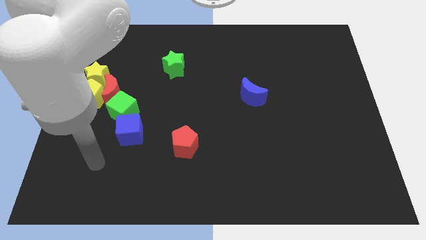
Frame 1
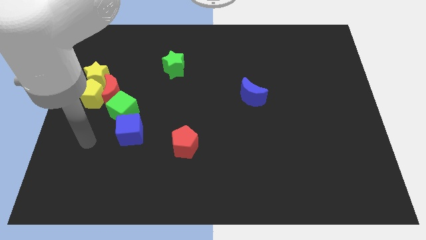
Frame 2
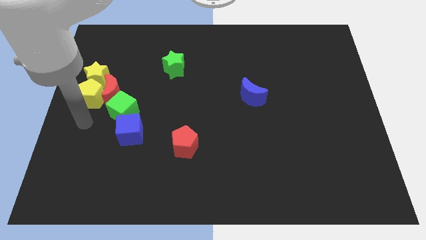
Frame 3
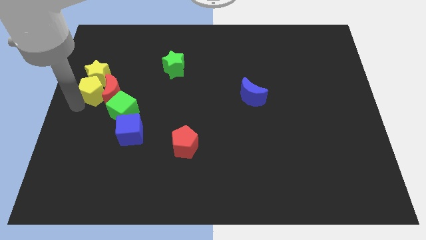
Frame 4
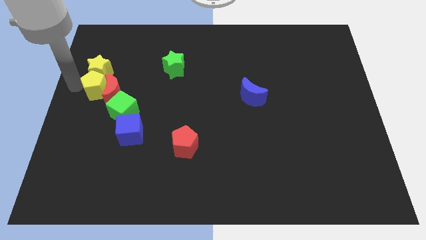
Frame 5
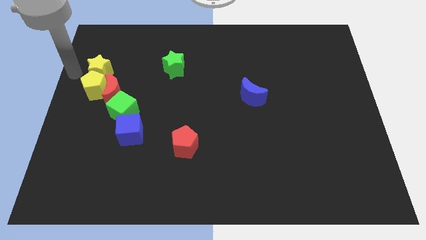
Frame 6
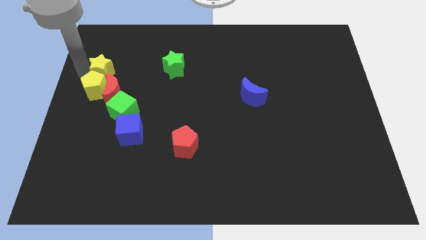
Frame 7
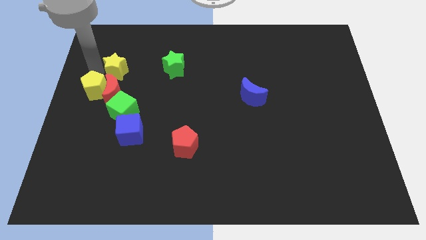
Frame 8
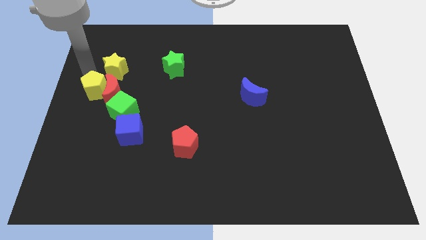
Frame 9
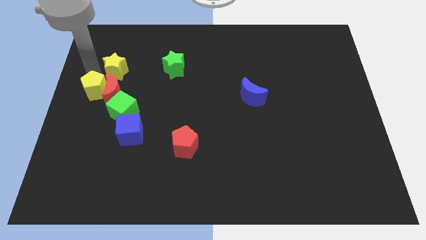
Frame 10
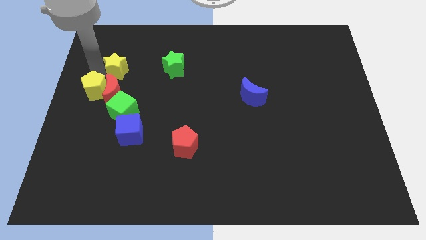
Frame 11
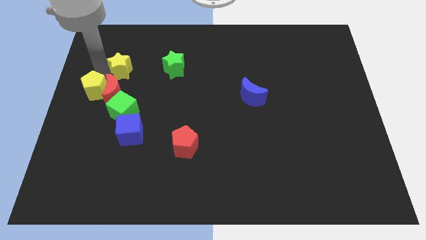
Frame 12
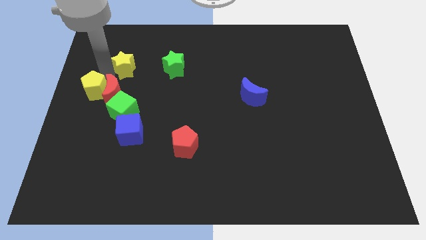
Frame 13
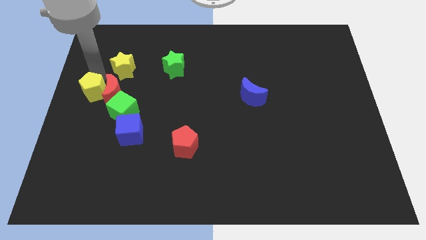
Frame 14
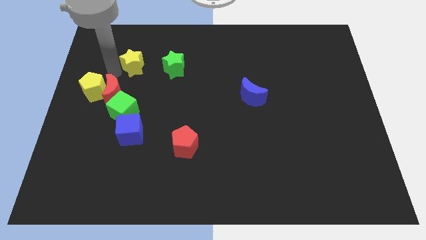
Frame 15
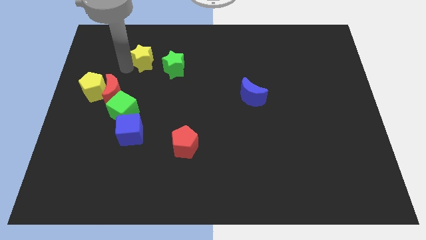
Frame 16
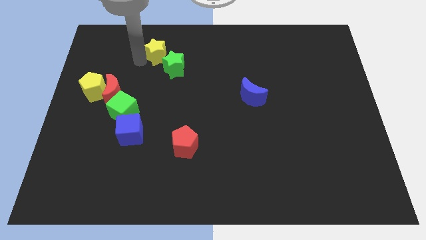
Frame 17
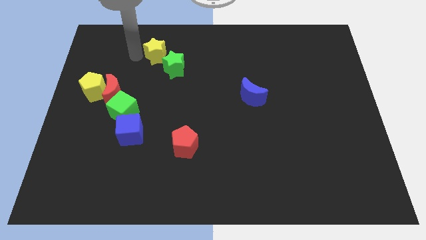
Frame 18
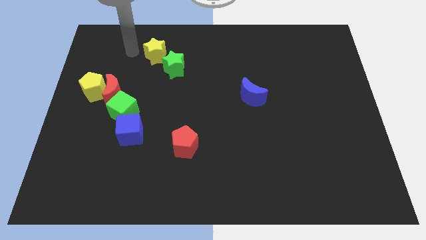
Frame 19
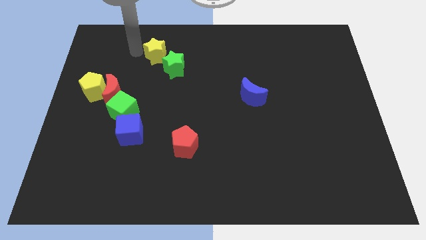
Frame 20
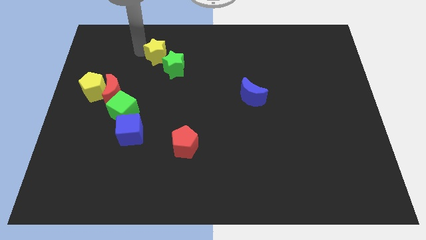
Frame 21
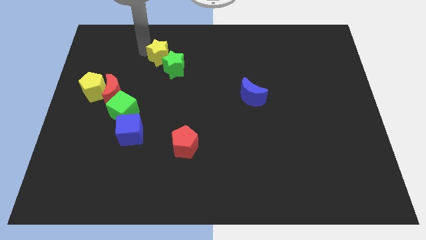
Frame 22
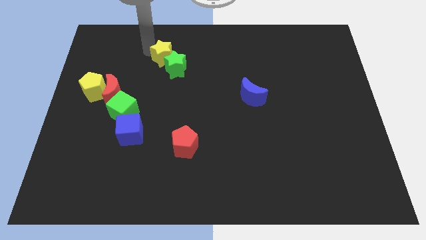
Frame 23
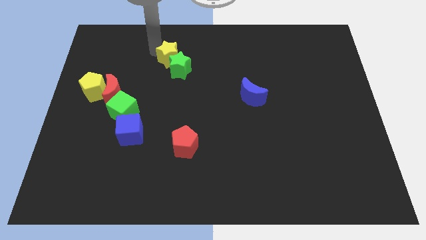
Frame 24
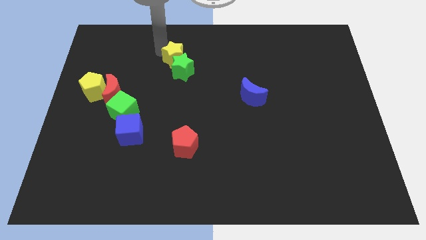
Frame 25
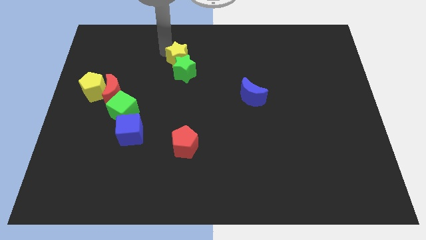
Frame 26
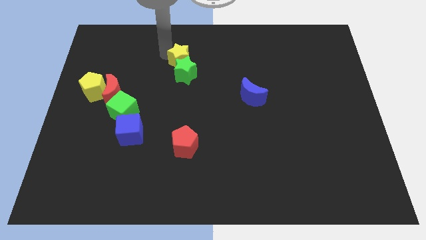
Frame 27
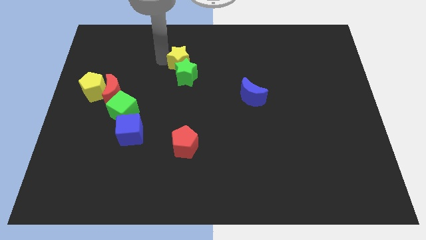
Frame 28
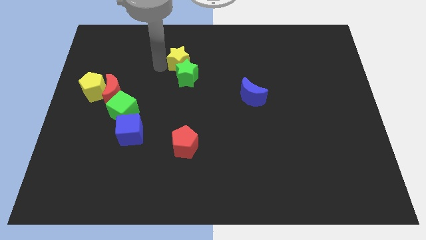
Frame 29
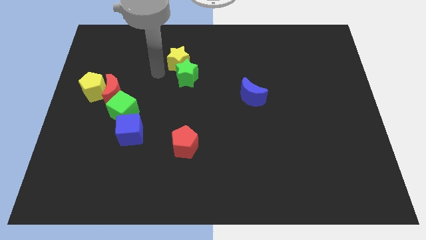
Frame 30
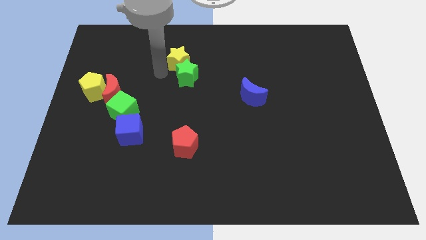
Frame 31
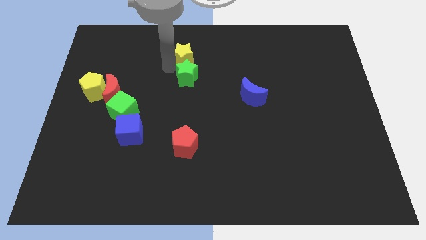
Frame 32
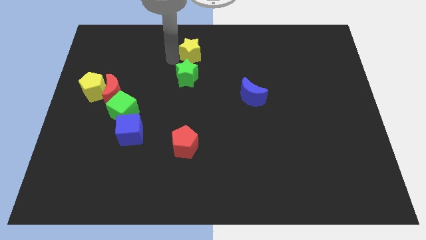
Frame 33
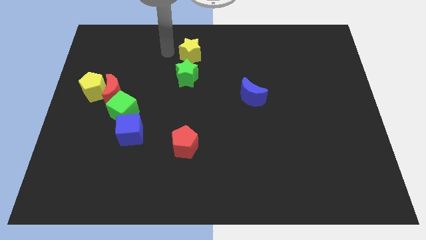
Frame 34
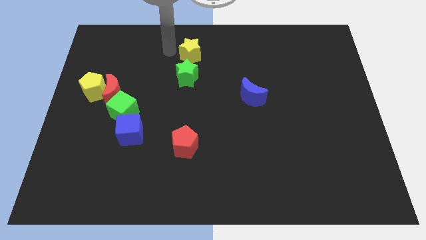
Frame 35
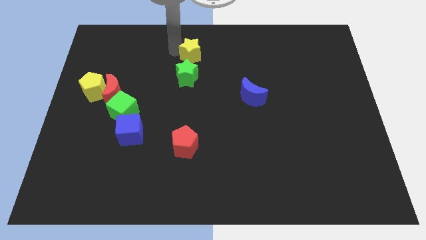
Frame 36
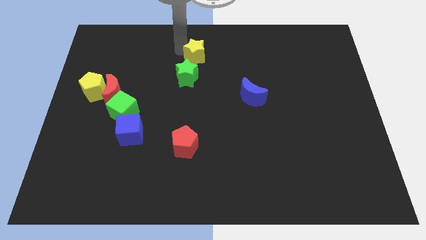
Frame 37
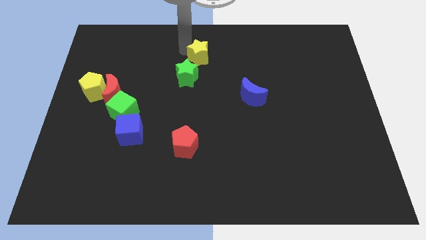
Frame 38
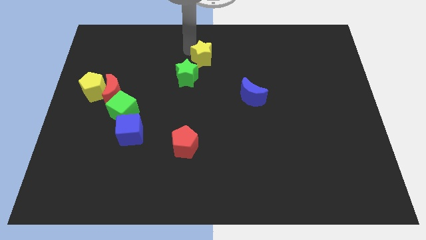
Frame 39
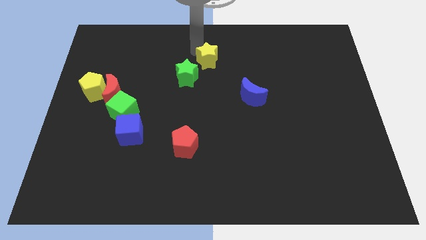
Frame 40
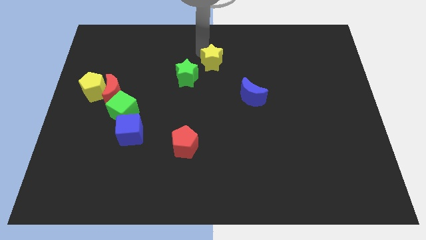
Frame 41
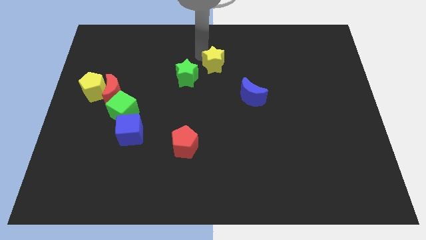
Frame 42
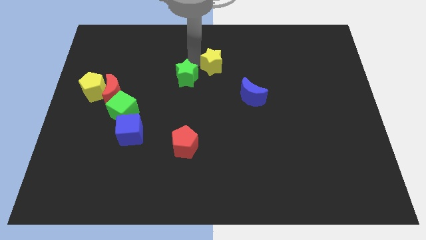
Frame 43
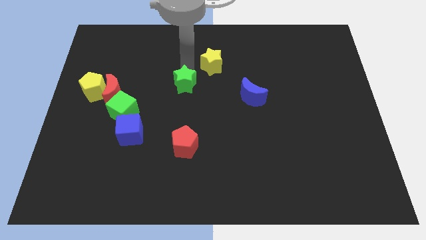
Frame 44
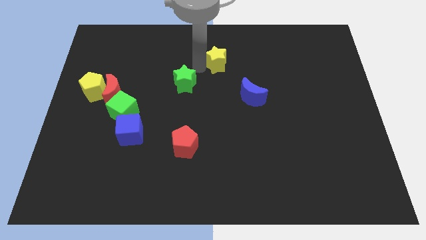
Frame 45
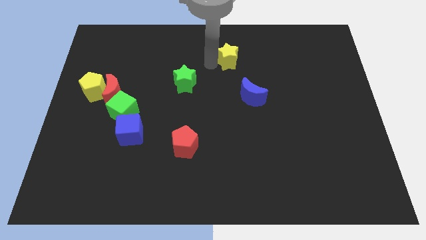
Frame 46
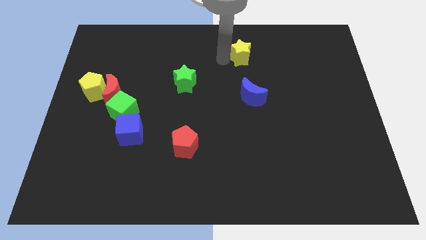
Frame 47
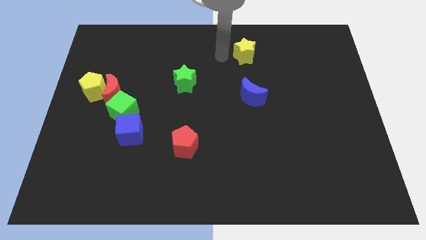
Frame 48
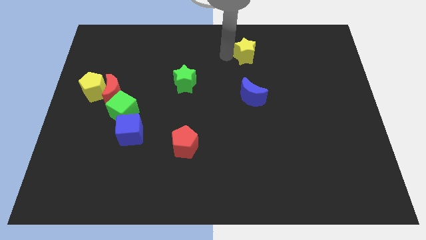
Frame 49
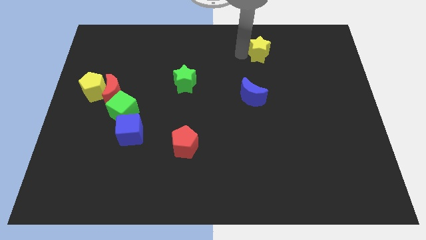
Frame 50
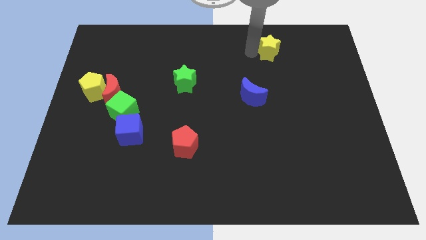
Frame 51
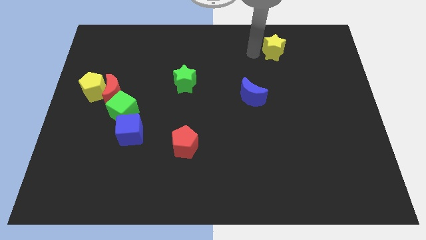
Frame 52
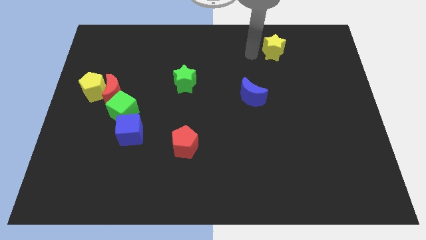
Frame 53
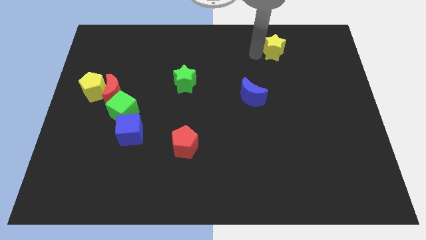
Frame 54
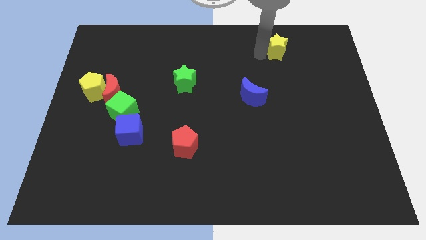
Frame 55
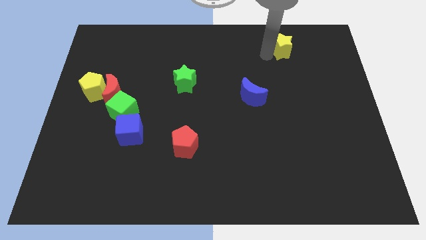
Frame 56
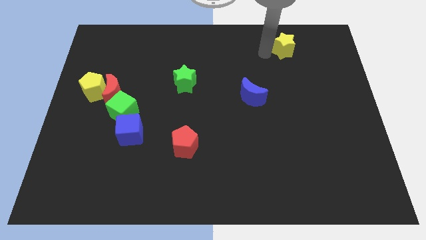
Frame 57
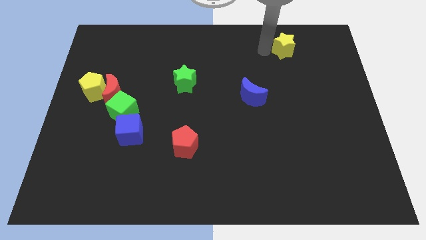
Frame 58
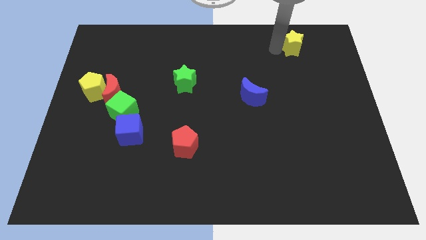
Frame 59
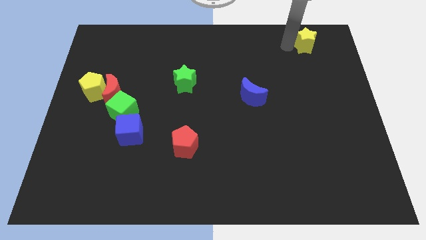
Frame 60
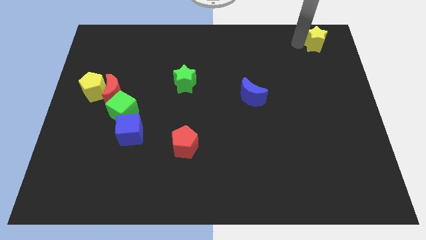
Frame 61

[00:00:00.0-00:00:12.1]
put the yellow star to the top right corner
